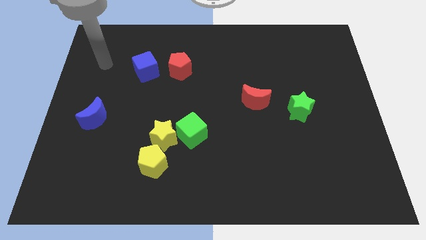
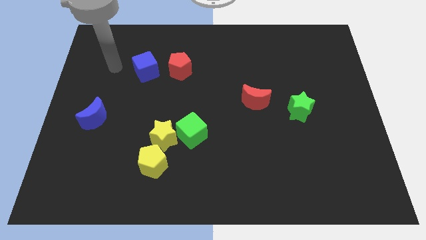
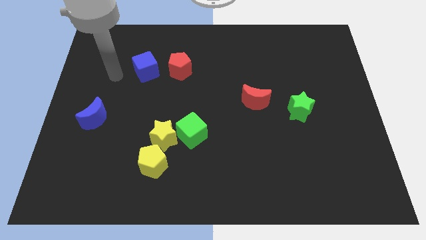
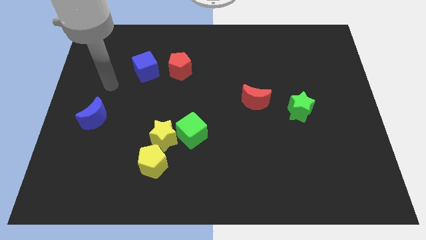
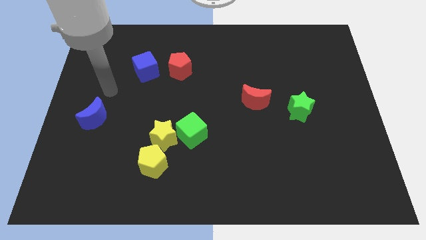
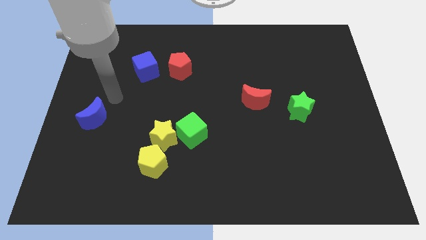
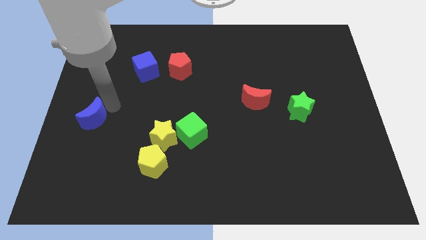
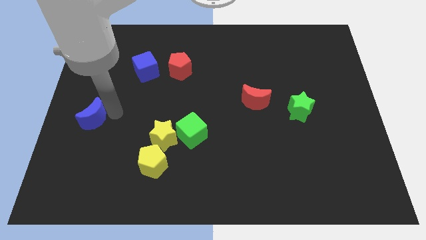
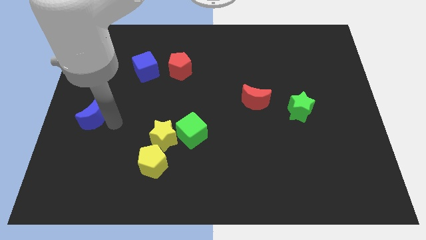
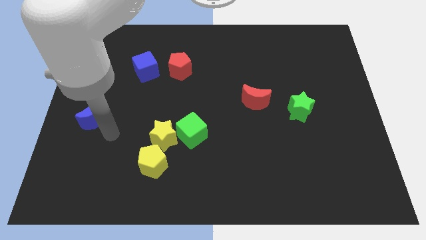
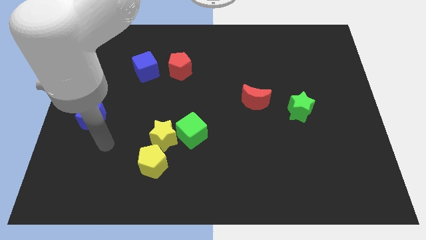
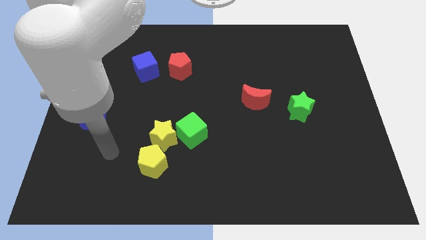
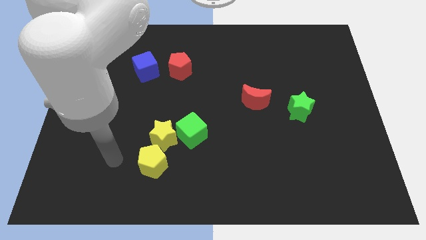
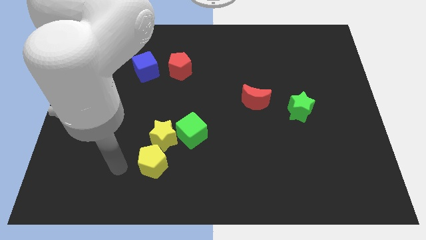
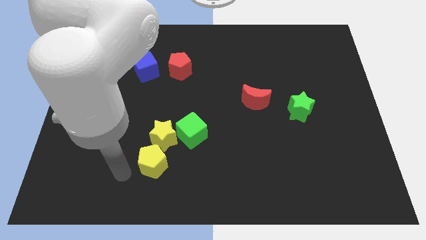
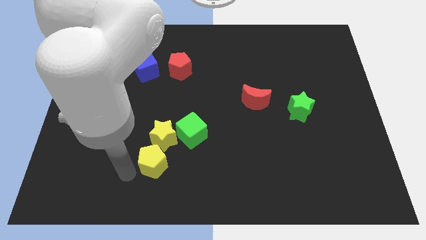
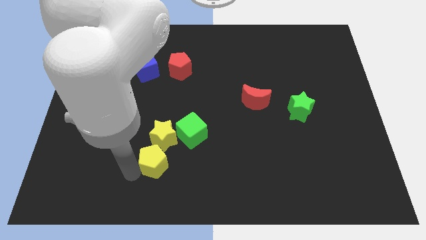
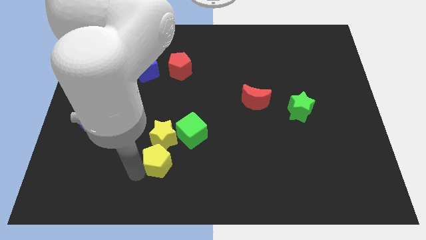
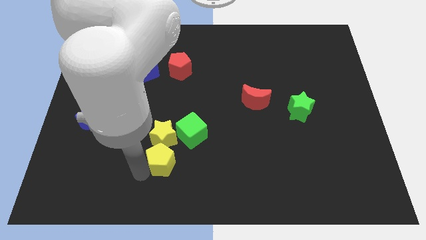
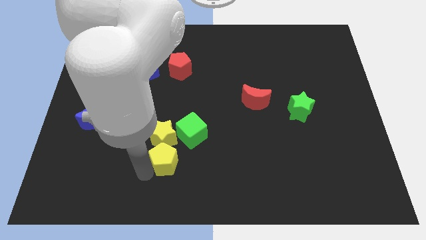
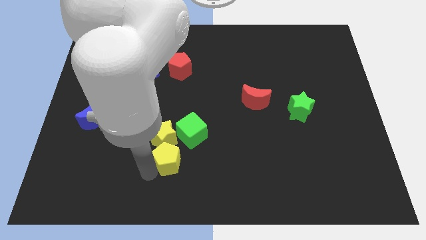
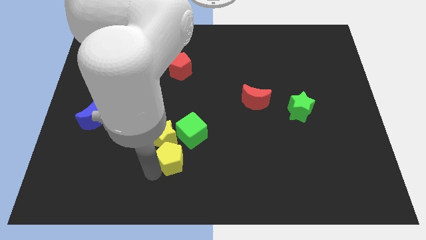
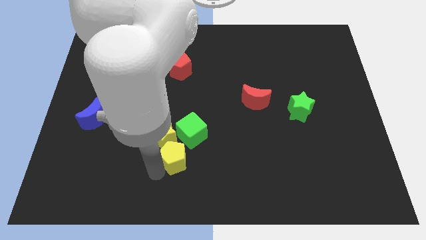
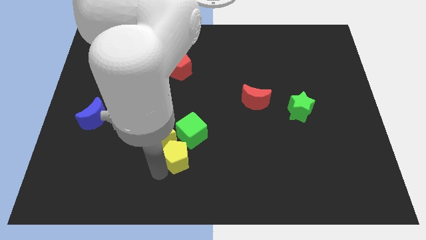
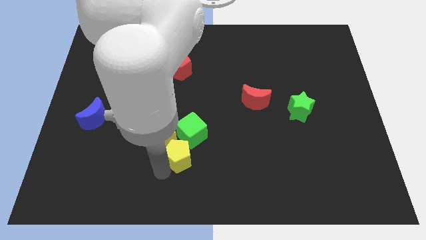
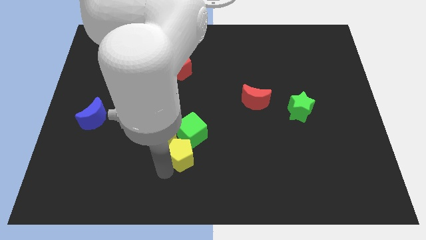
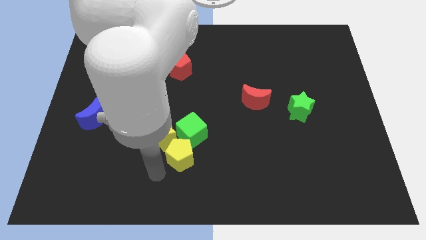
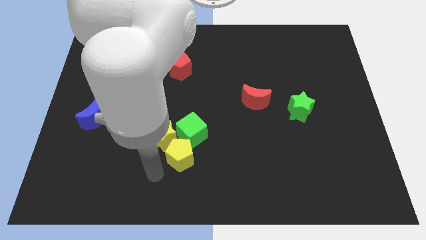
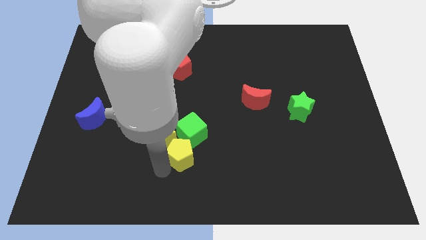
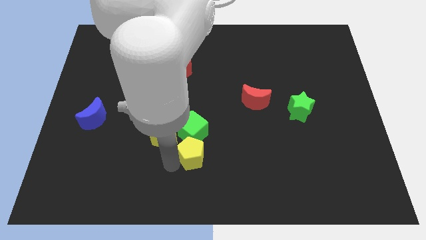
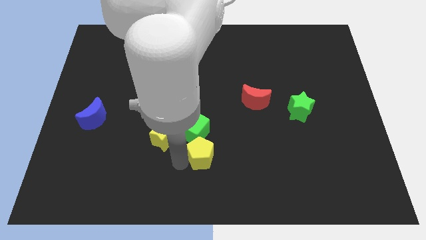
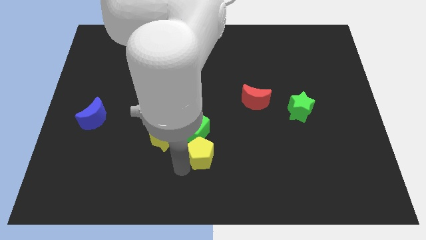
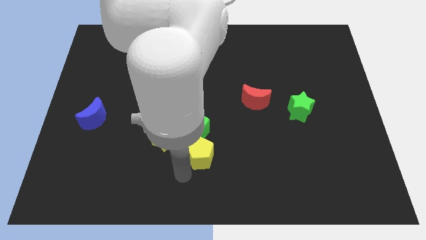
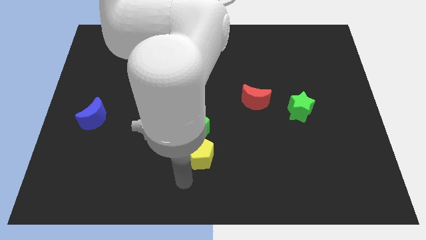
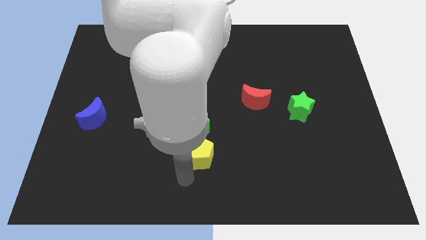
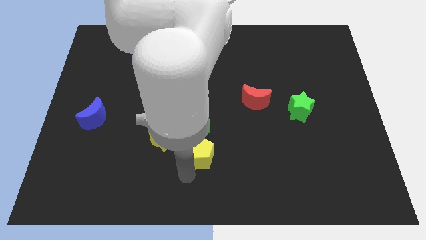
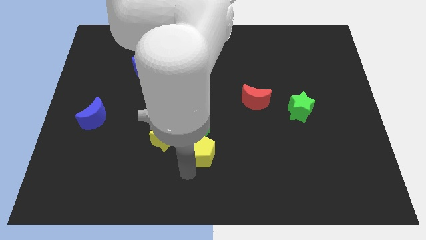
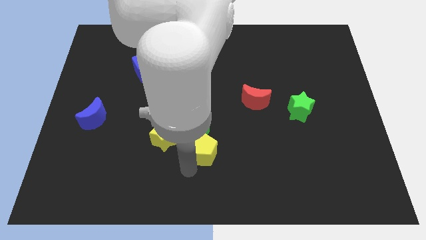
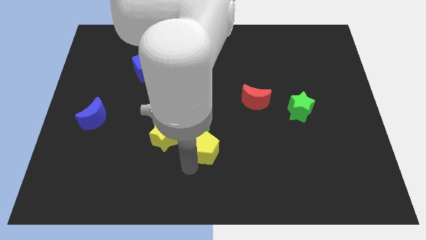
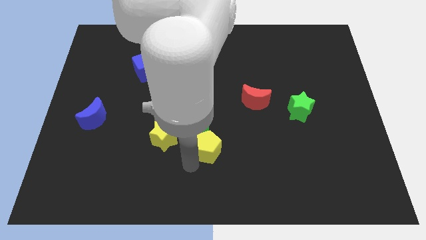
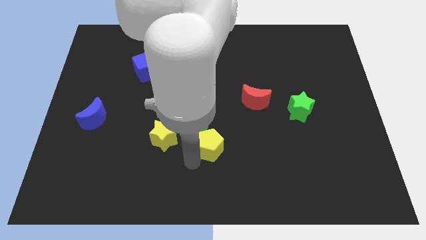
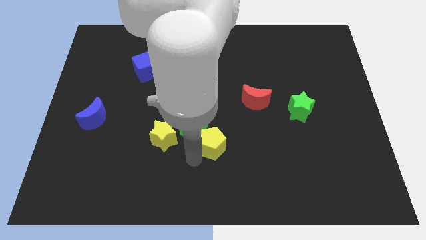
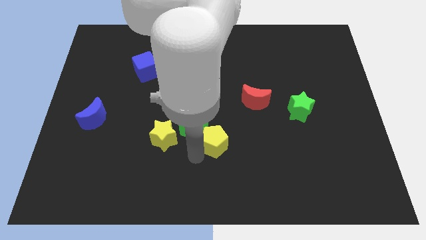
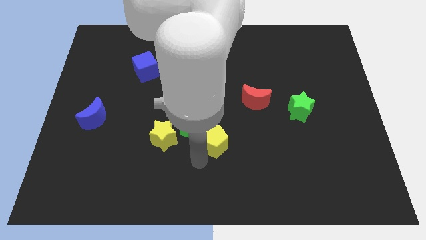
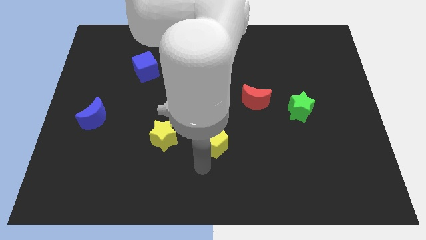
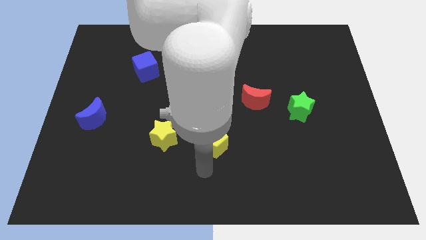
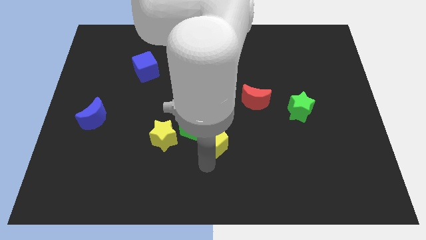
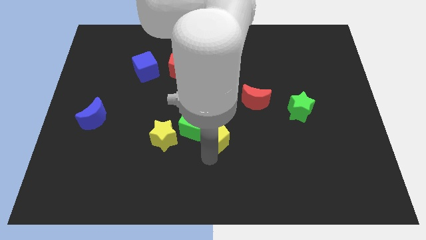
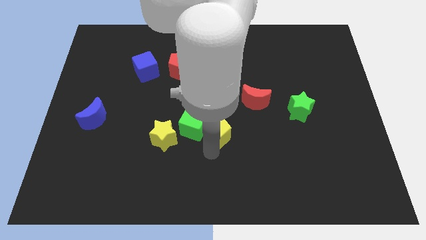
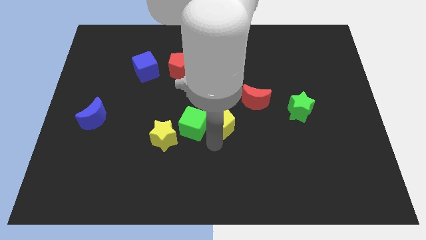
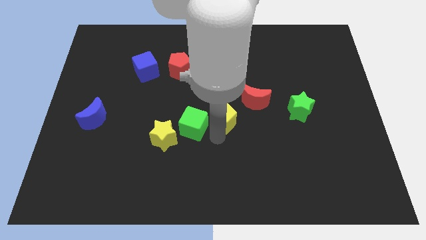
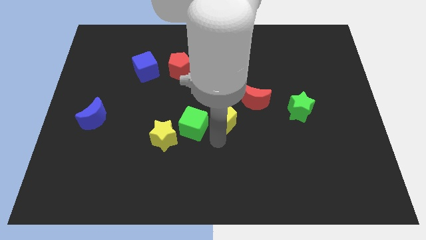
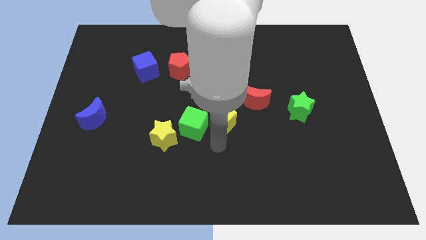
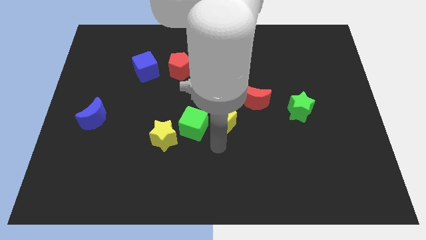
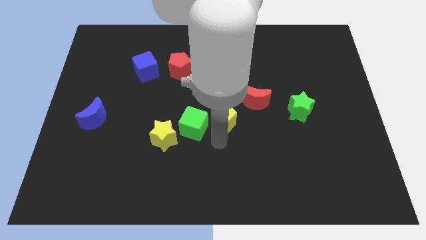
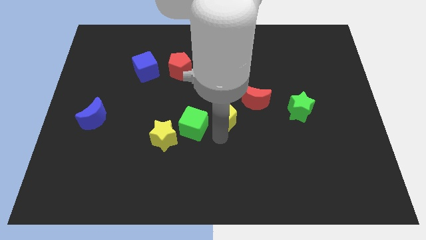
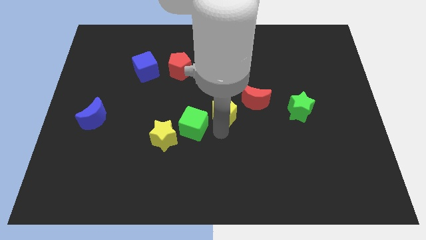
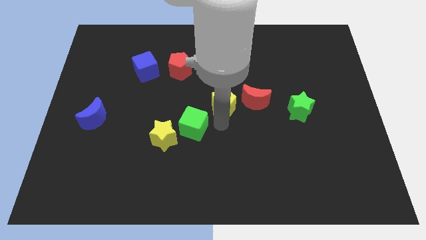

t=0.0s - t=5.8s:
move the yellow pentagon upwards and then right

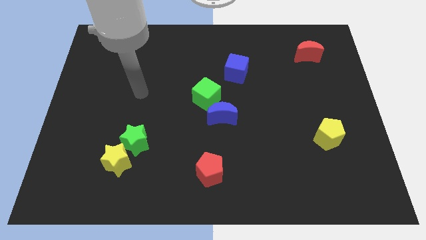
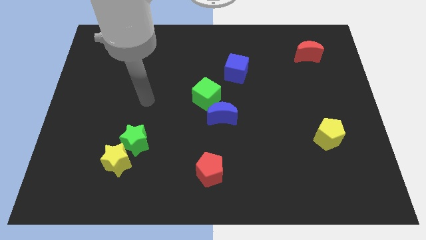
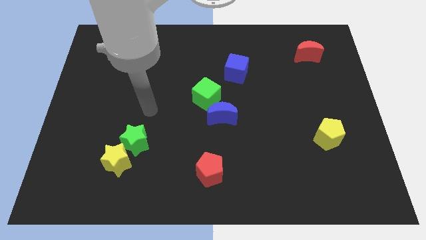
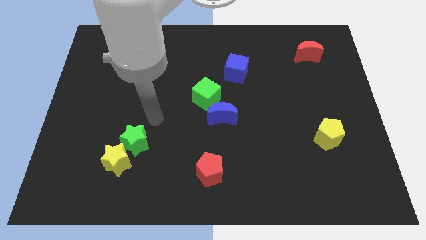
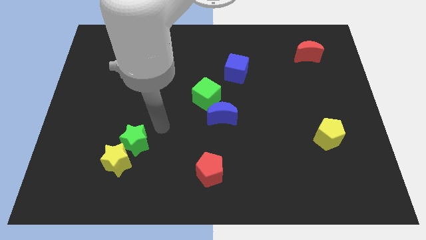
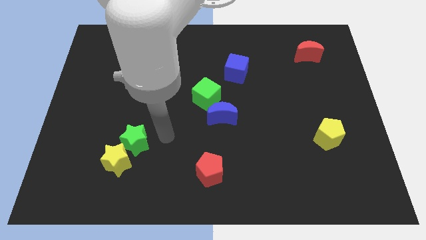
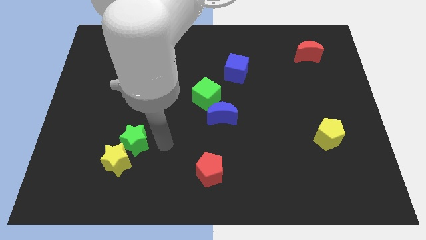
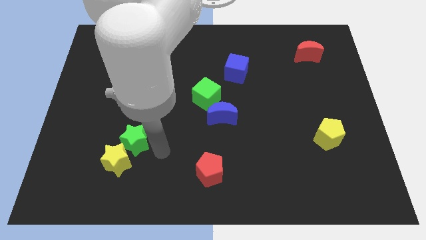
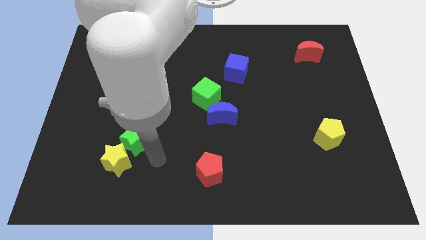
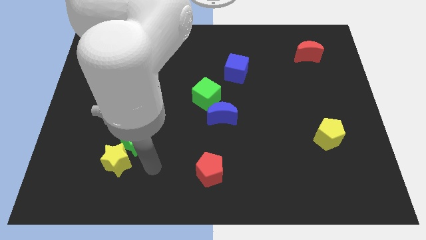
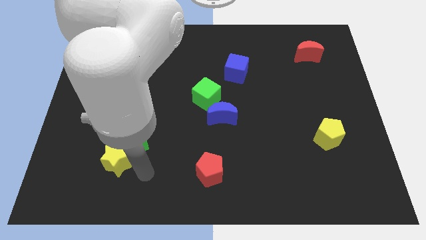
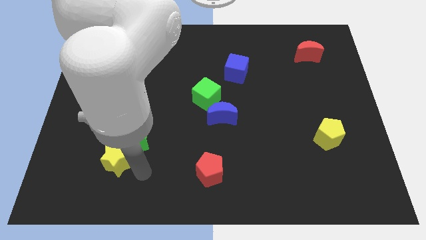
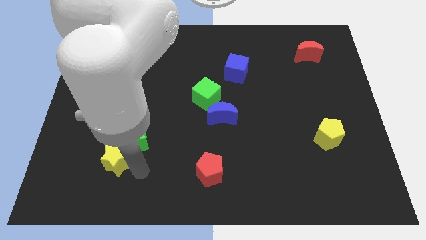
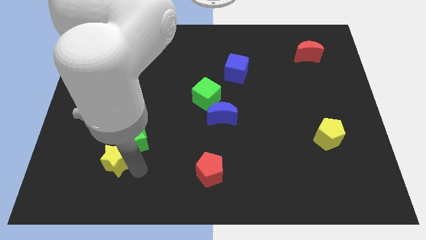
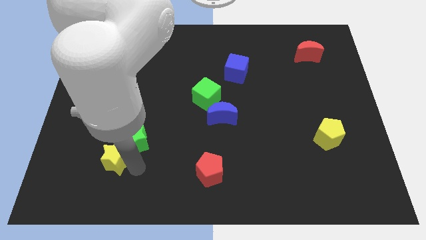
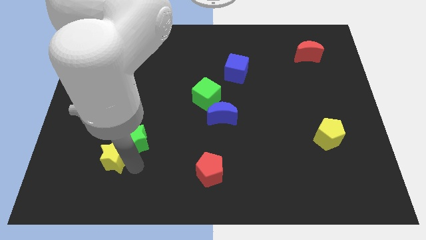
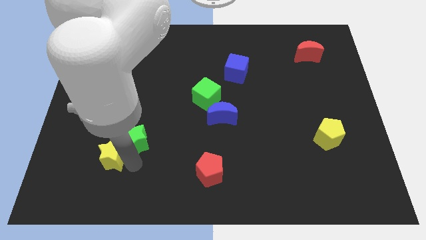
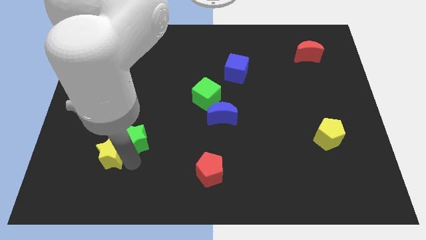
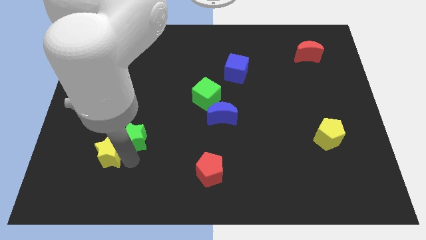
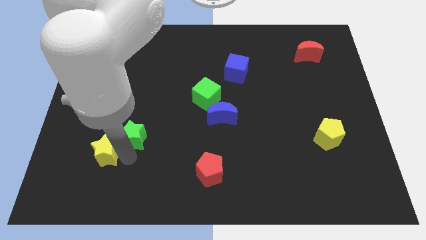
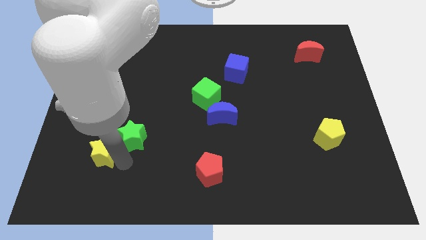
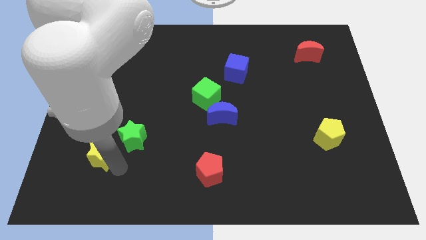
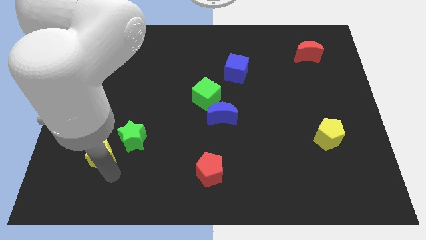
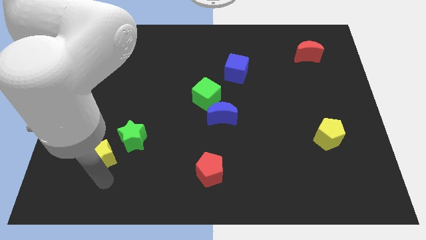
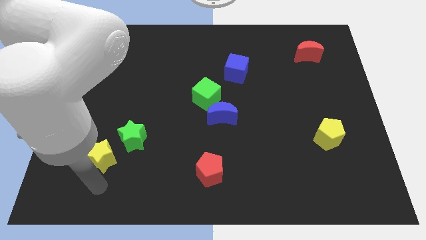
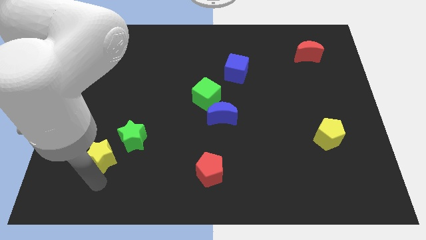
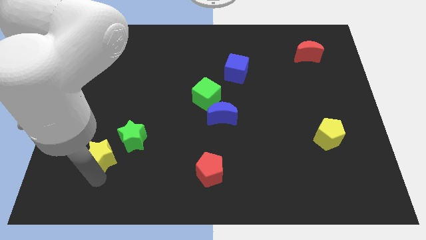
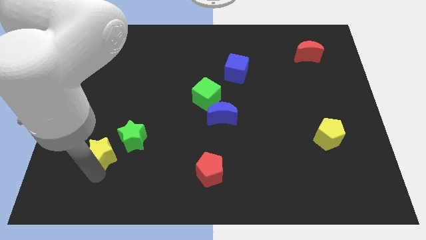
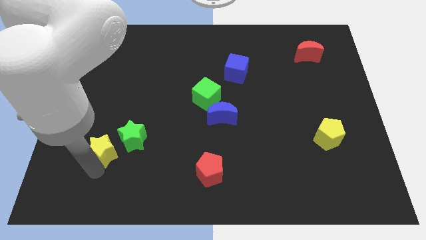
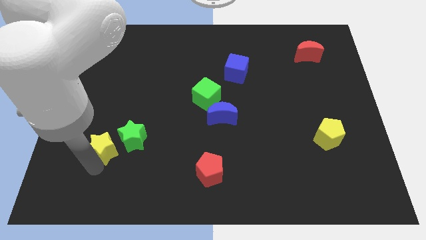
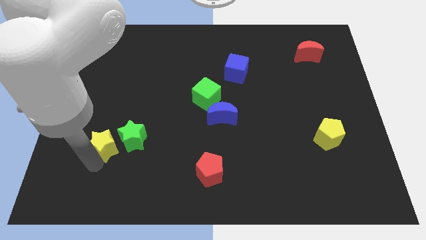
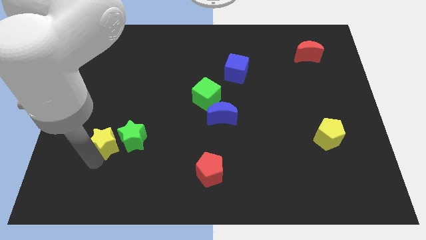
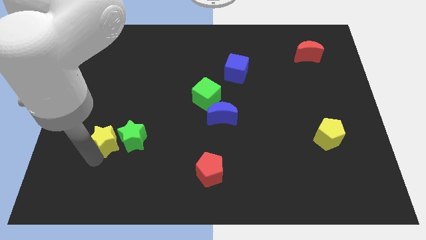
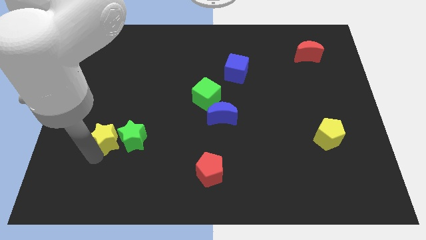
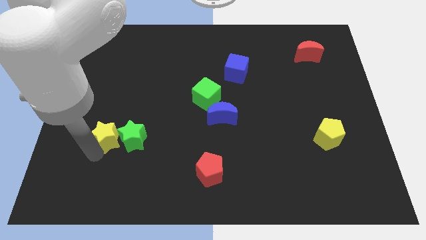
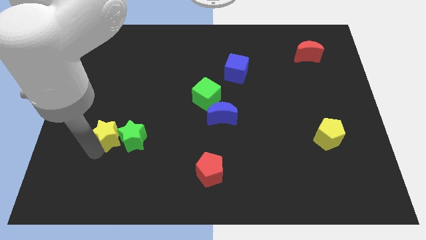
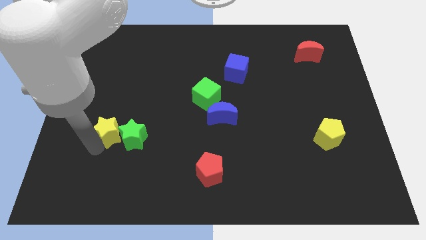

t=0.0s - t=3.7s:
slightly move the yellow star up
